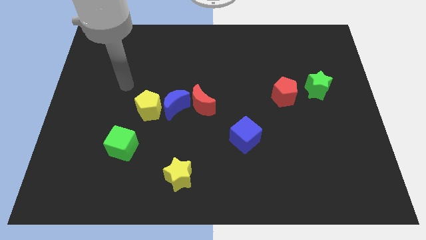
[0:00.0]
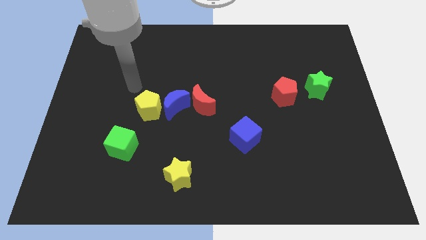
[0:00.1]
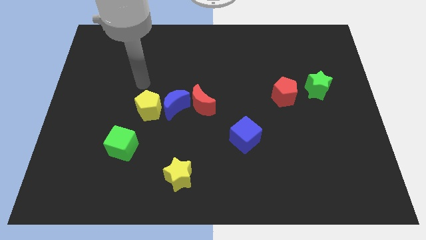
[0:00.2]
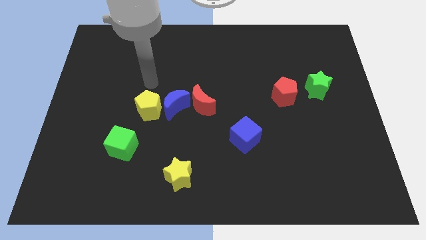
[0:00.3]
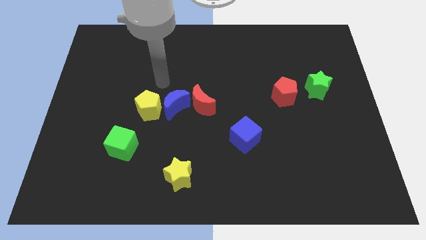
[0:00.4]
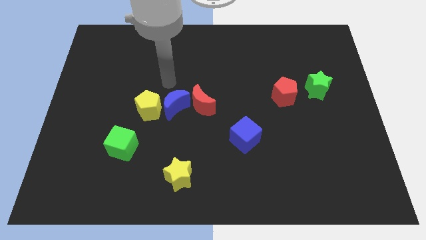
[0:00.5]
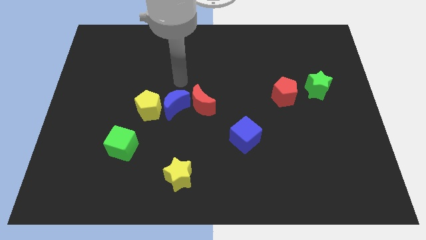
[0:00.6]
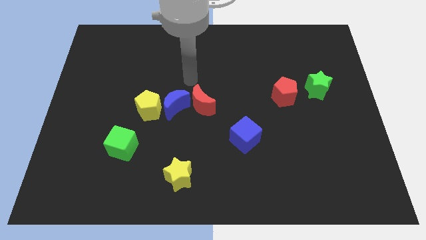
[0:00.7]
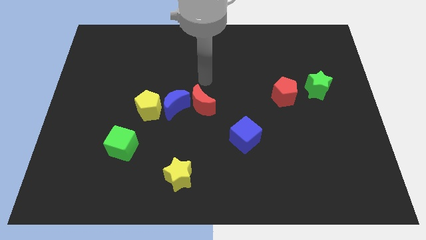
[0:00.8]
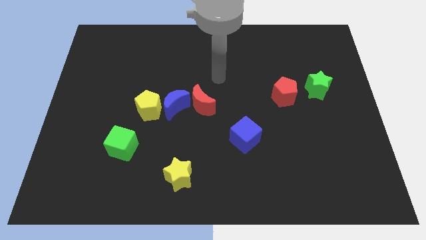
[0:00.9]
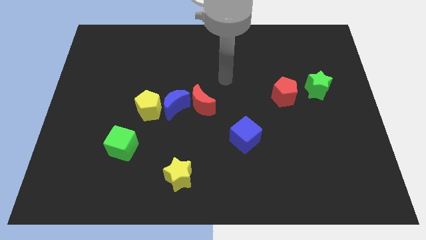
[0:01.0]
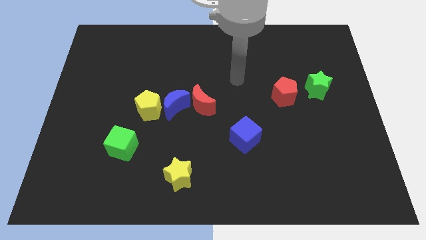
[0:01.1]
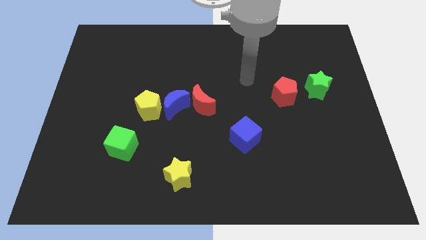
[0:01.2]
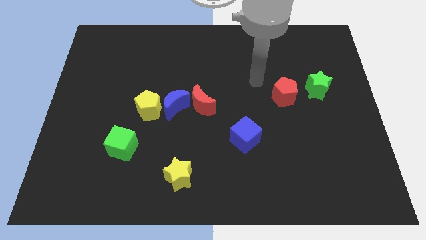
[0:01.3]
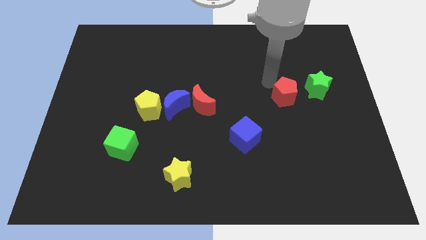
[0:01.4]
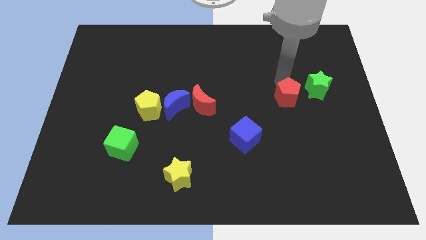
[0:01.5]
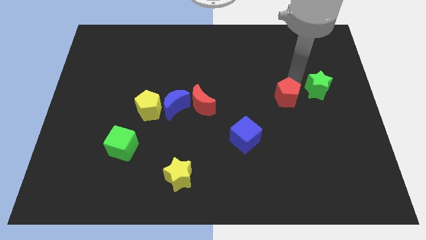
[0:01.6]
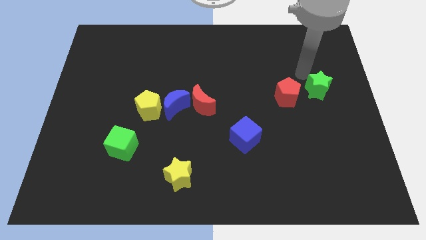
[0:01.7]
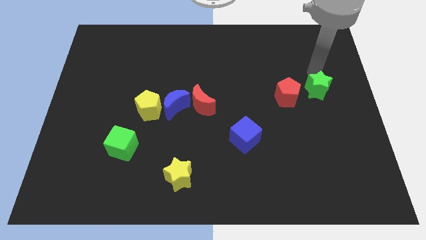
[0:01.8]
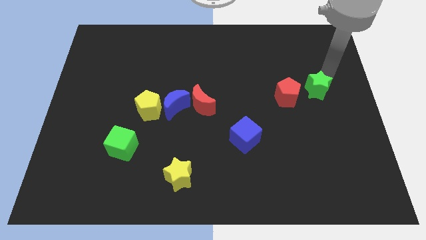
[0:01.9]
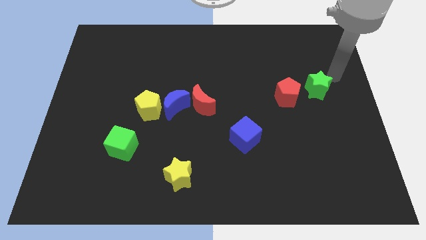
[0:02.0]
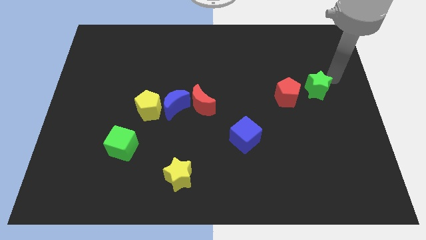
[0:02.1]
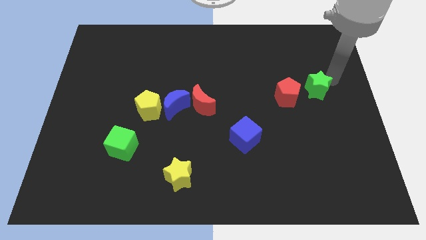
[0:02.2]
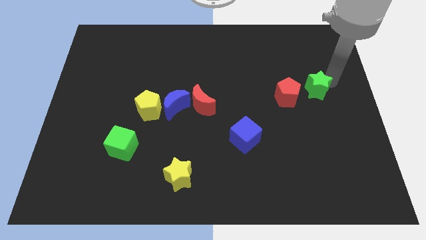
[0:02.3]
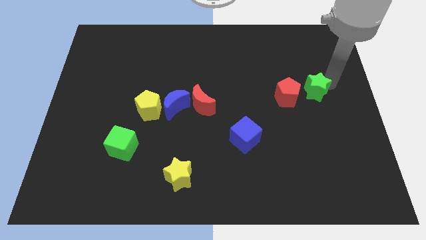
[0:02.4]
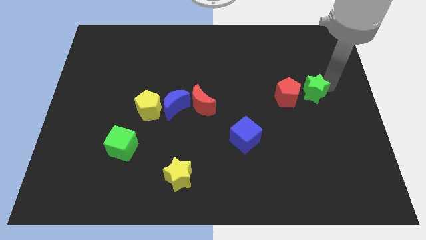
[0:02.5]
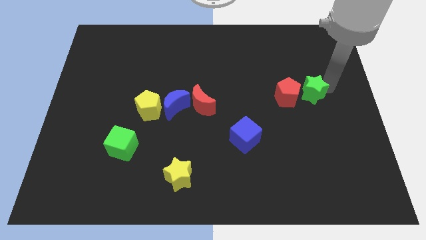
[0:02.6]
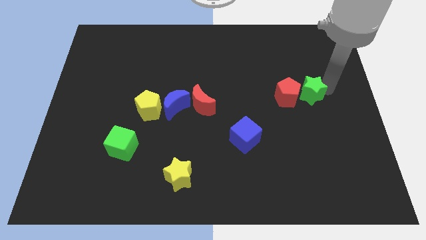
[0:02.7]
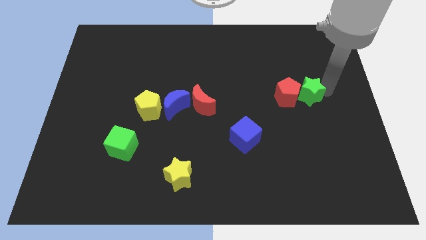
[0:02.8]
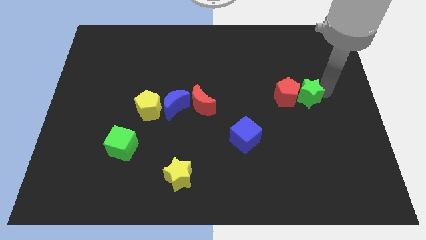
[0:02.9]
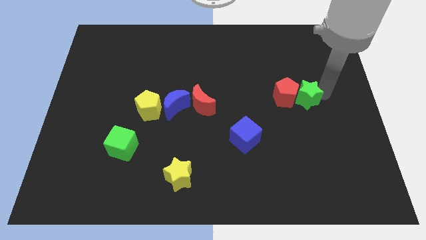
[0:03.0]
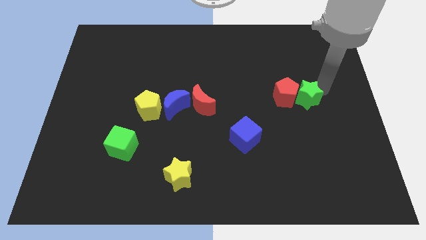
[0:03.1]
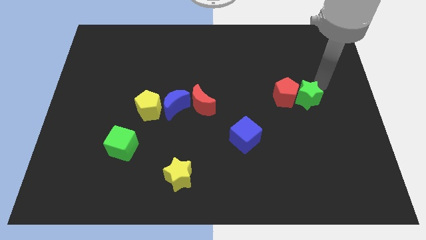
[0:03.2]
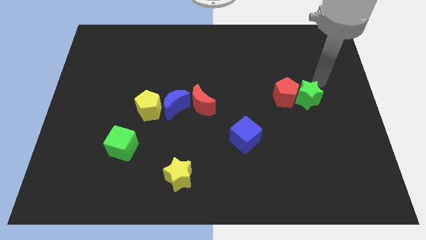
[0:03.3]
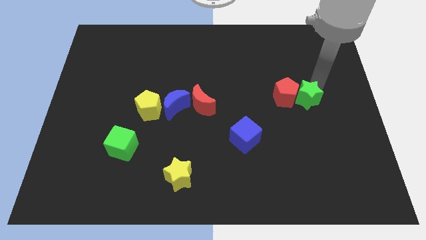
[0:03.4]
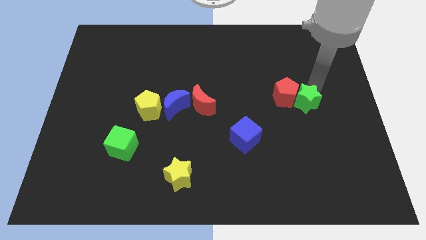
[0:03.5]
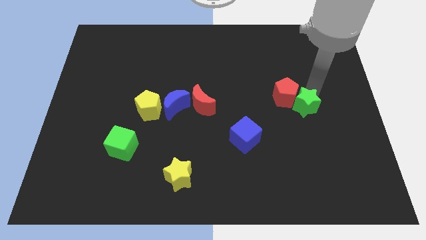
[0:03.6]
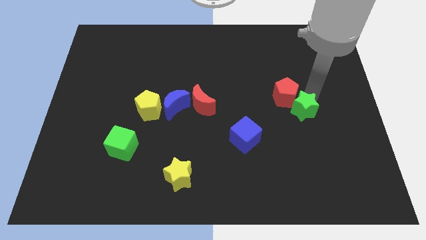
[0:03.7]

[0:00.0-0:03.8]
slide the green star slightly down and then left

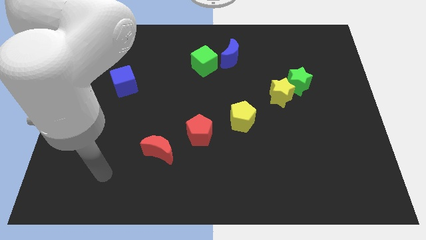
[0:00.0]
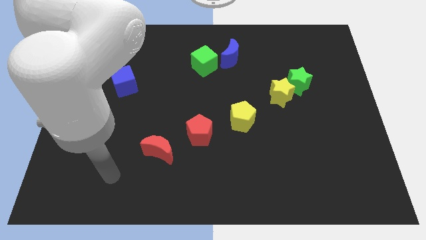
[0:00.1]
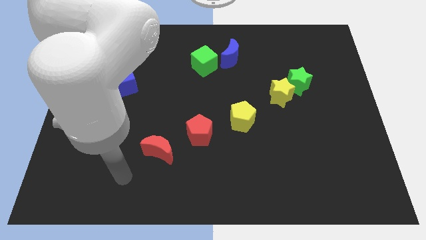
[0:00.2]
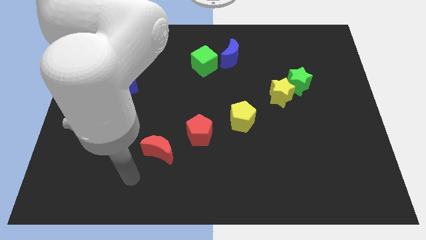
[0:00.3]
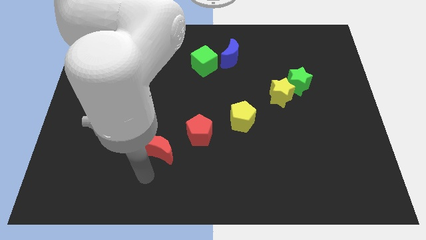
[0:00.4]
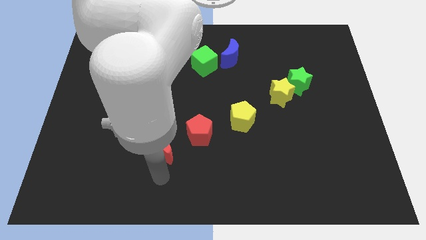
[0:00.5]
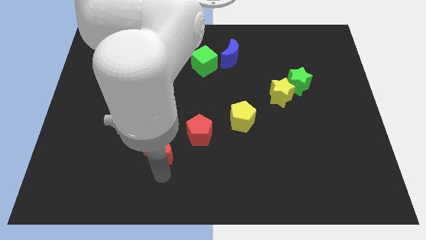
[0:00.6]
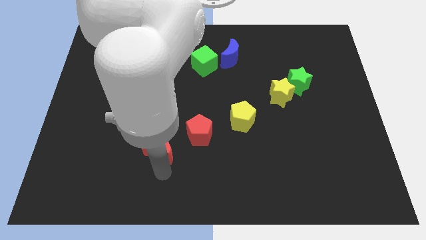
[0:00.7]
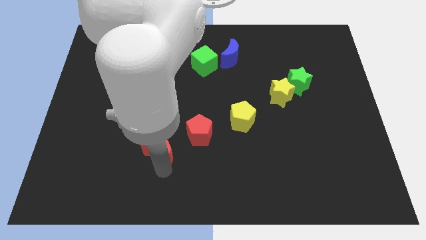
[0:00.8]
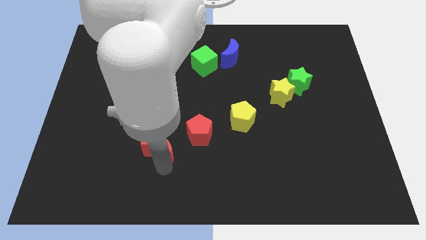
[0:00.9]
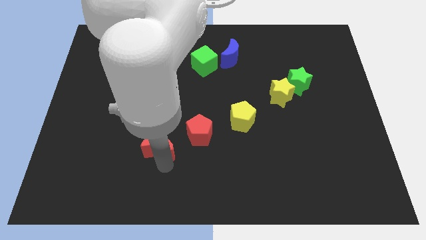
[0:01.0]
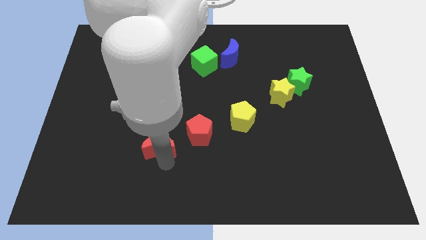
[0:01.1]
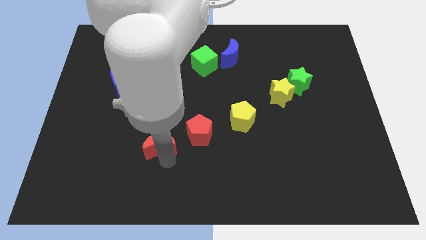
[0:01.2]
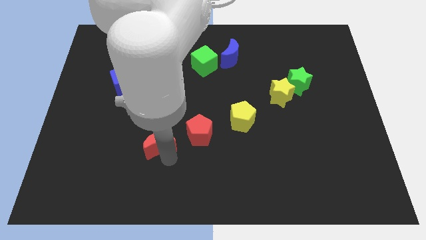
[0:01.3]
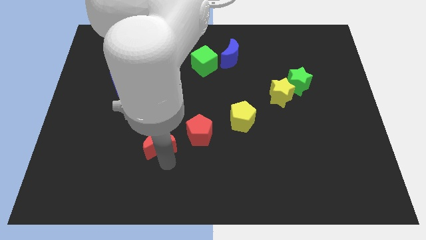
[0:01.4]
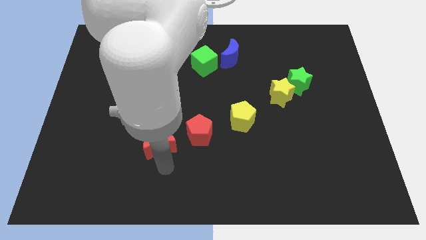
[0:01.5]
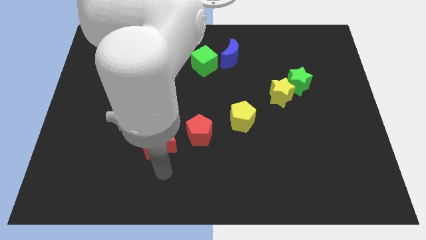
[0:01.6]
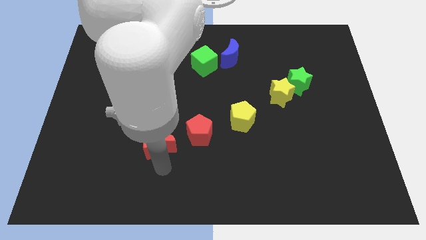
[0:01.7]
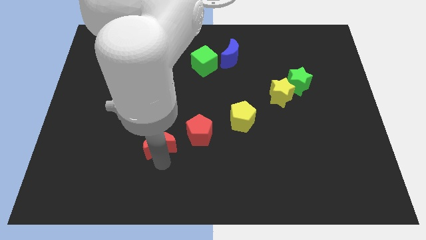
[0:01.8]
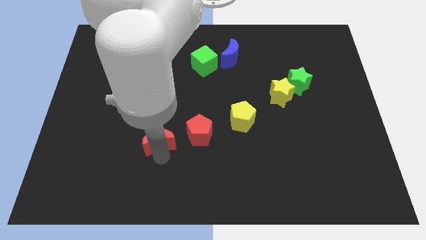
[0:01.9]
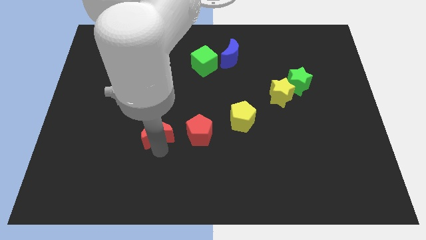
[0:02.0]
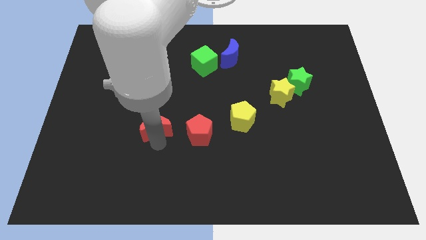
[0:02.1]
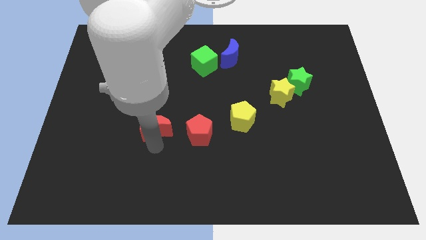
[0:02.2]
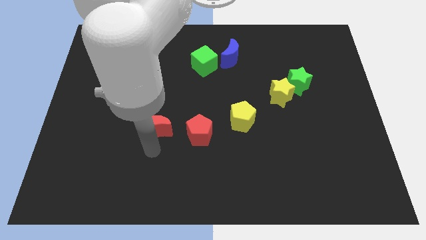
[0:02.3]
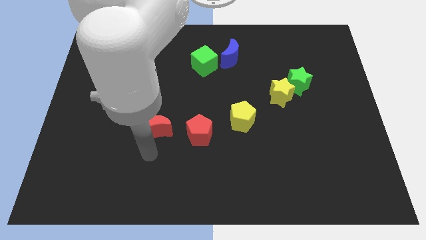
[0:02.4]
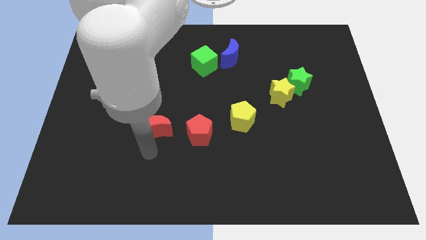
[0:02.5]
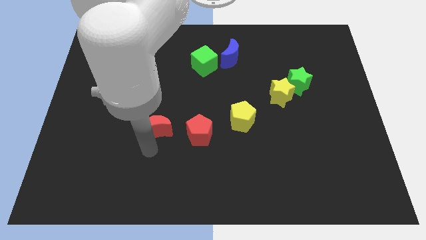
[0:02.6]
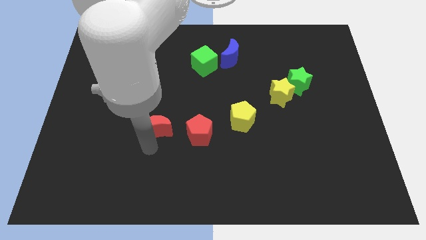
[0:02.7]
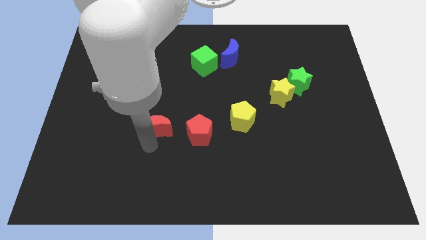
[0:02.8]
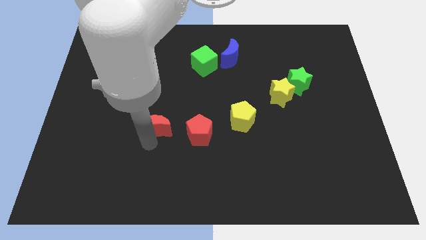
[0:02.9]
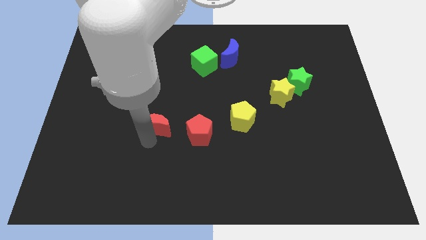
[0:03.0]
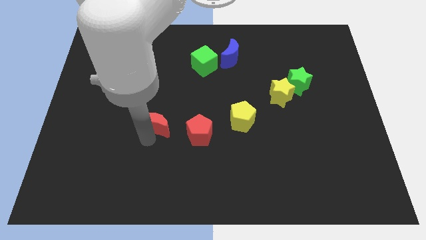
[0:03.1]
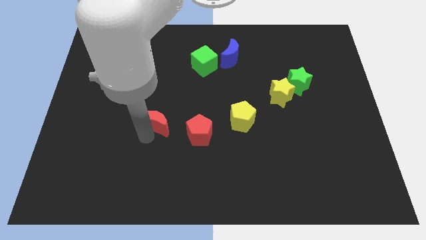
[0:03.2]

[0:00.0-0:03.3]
move the red moon somewhat upwards

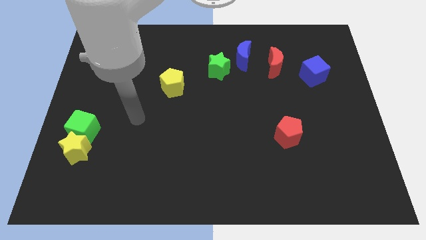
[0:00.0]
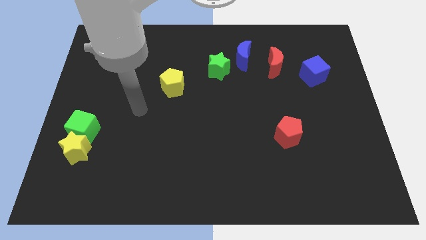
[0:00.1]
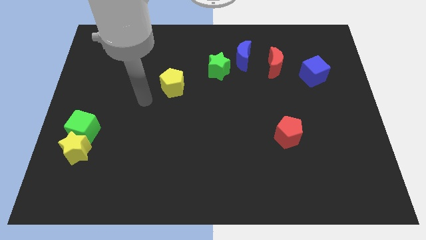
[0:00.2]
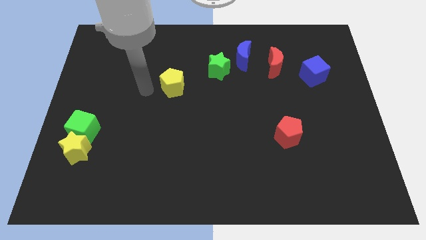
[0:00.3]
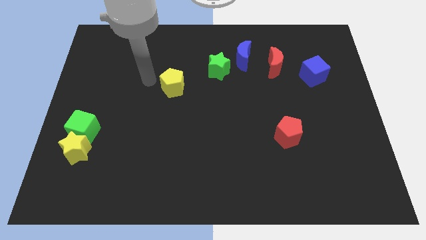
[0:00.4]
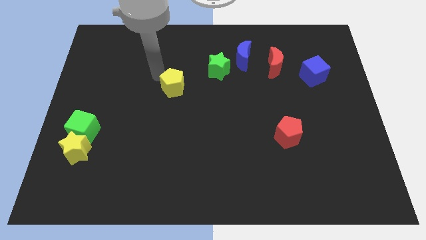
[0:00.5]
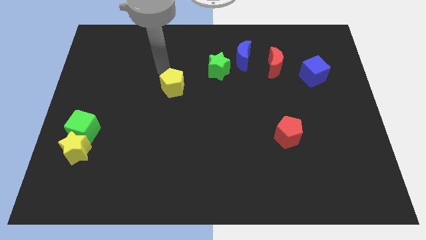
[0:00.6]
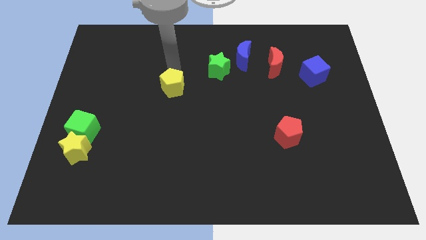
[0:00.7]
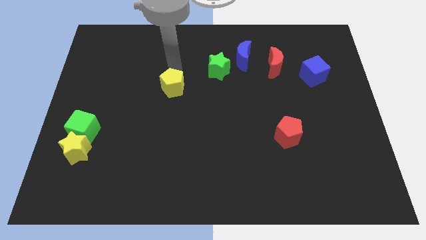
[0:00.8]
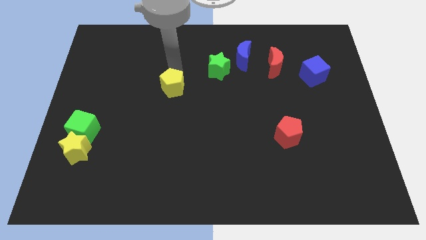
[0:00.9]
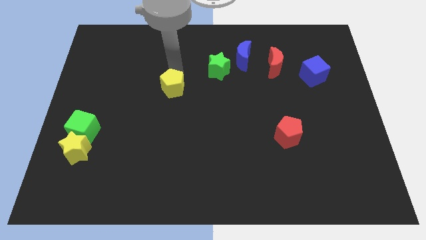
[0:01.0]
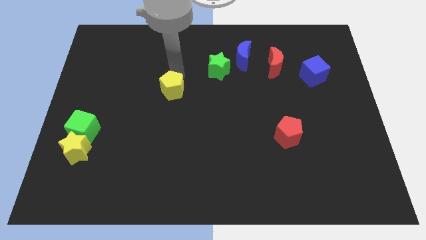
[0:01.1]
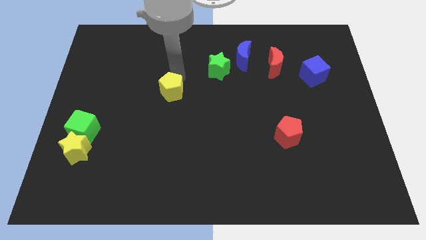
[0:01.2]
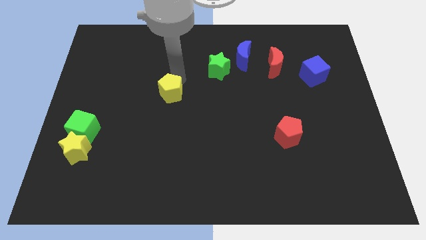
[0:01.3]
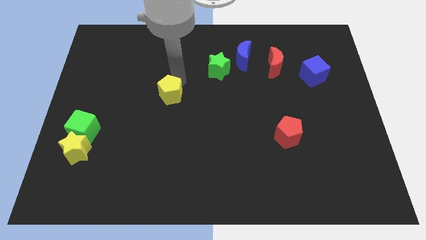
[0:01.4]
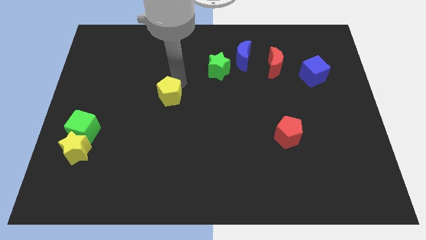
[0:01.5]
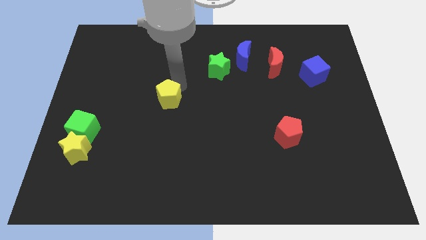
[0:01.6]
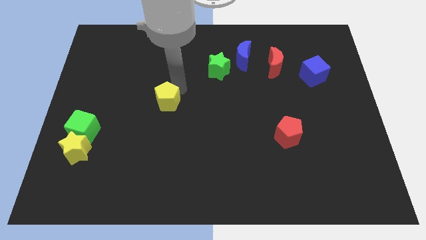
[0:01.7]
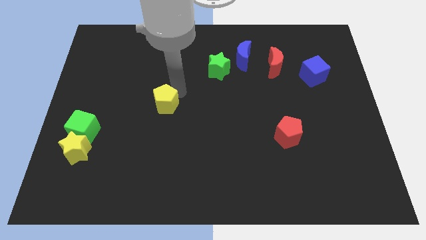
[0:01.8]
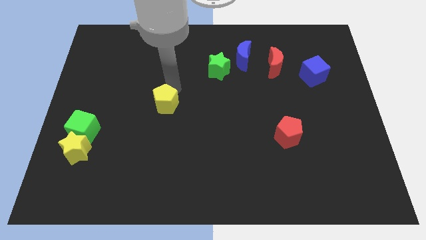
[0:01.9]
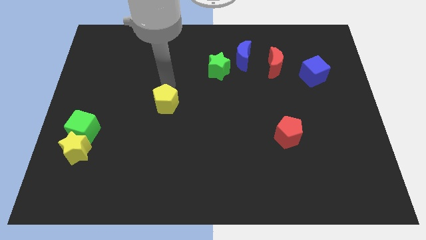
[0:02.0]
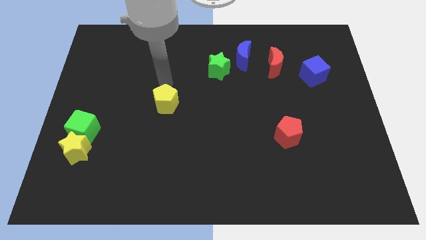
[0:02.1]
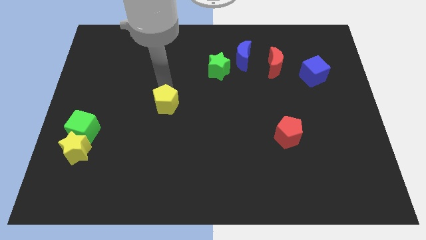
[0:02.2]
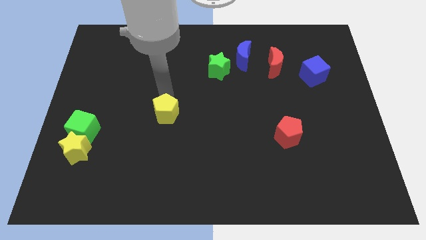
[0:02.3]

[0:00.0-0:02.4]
slide the yellow pentagon a little downwards
